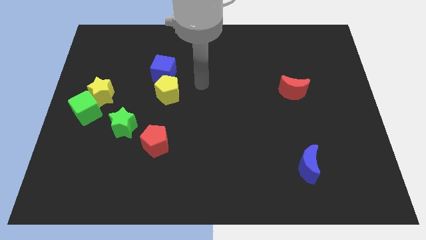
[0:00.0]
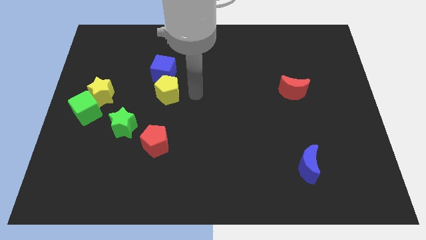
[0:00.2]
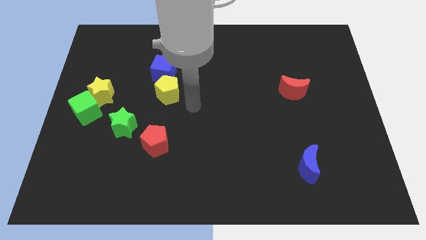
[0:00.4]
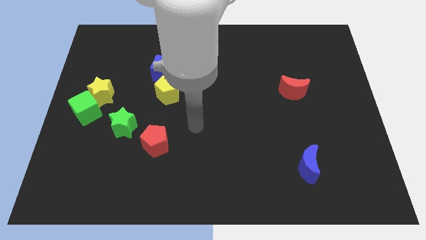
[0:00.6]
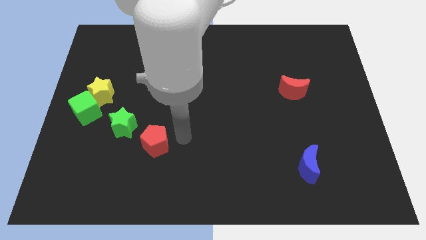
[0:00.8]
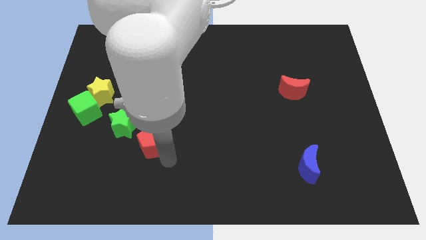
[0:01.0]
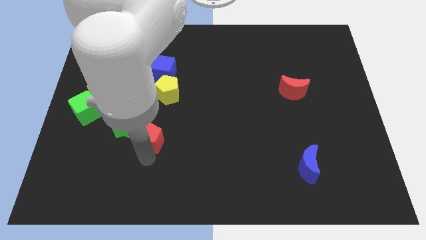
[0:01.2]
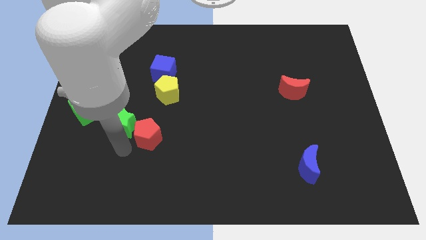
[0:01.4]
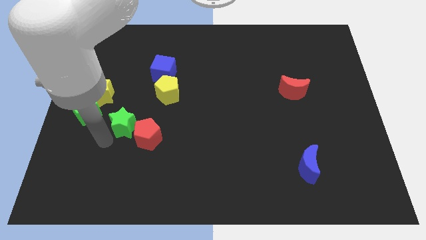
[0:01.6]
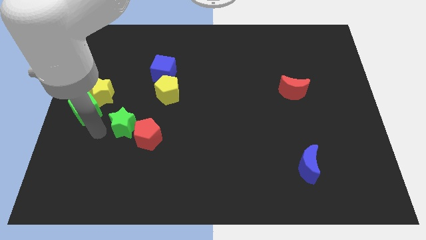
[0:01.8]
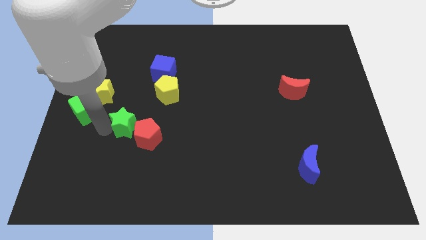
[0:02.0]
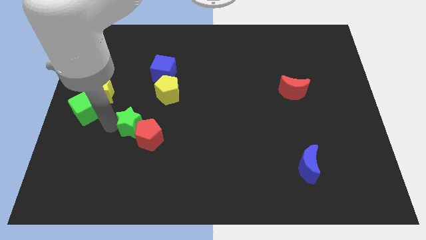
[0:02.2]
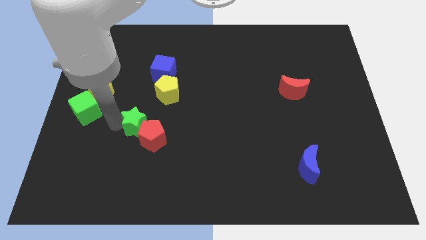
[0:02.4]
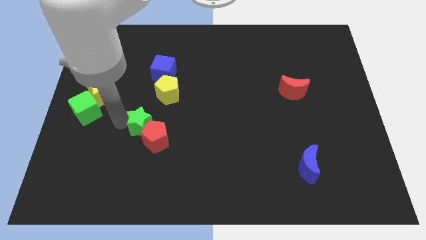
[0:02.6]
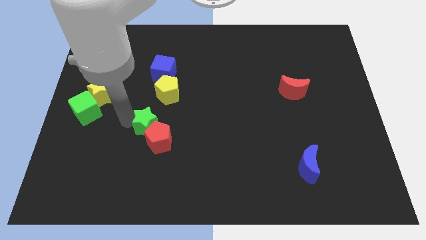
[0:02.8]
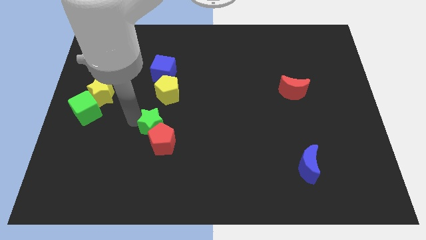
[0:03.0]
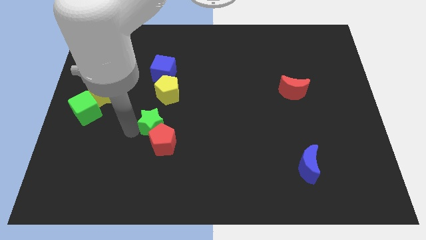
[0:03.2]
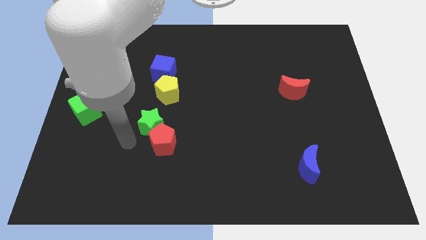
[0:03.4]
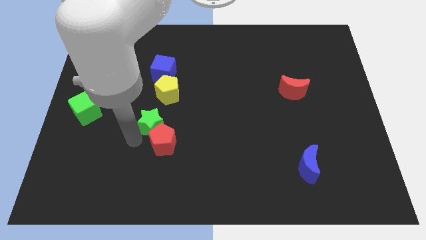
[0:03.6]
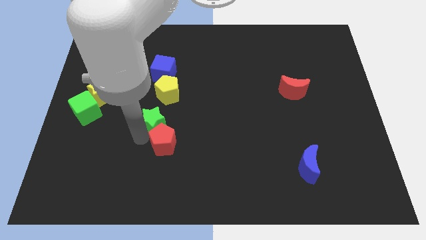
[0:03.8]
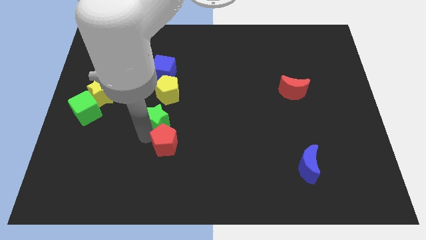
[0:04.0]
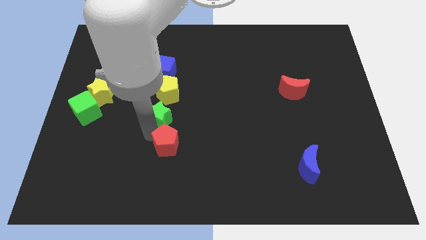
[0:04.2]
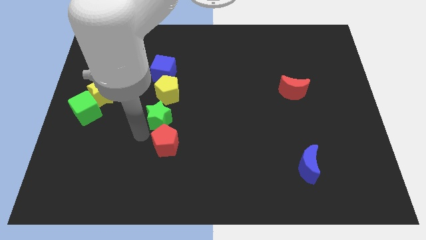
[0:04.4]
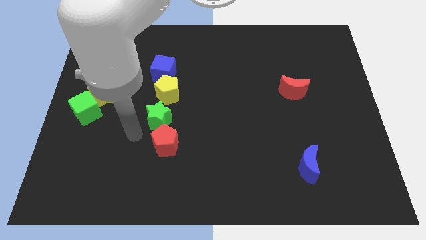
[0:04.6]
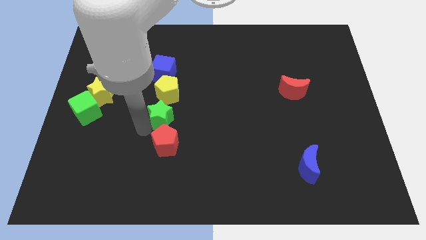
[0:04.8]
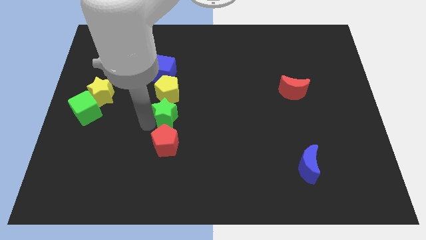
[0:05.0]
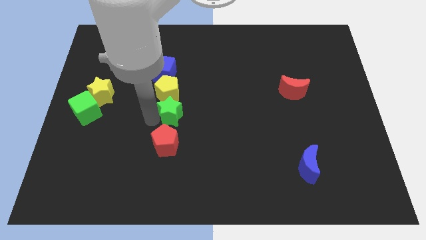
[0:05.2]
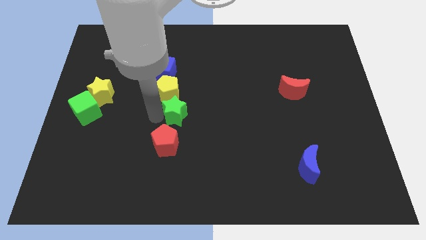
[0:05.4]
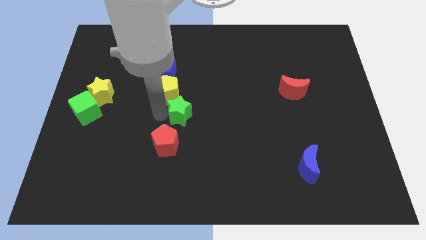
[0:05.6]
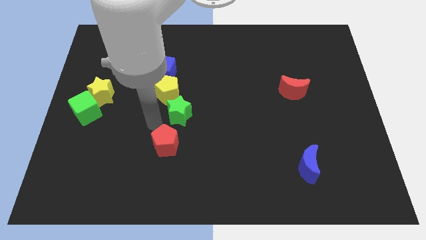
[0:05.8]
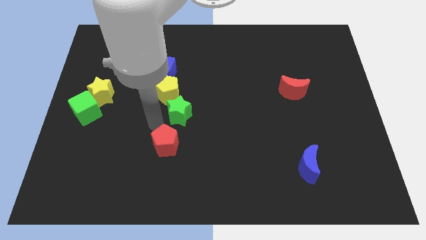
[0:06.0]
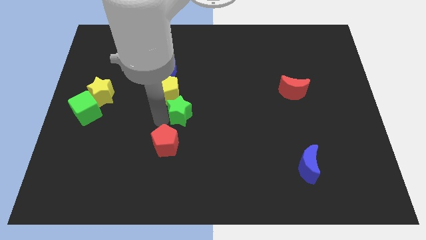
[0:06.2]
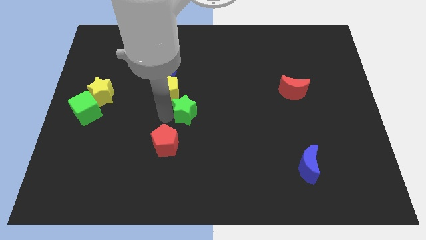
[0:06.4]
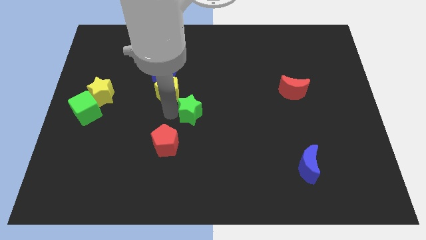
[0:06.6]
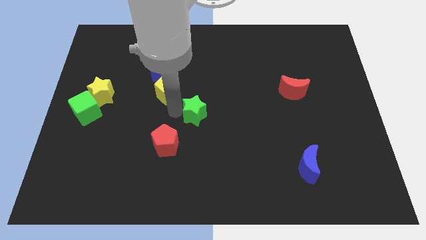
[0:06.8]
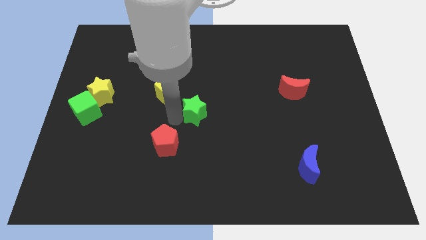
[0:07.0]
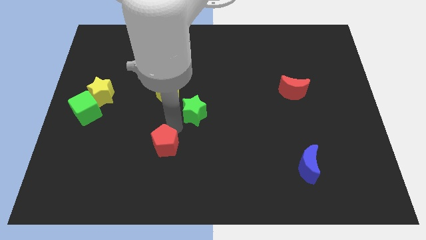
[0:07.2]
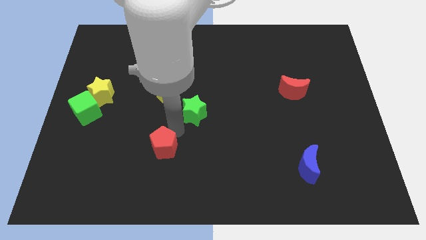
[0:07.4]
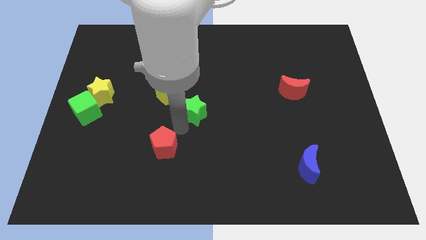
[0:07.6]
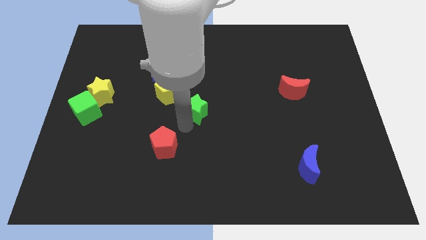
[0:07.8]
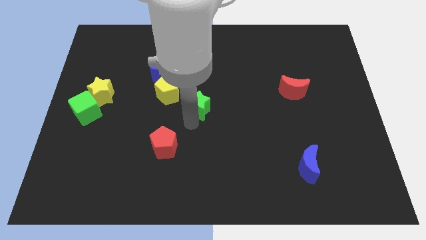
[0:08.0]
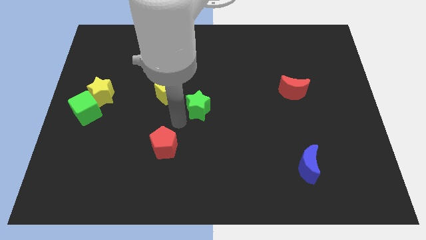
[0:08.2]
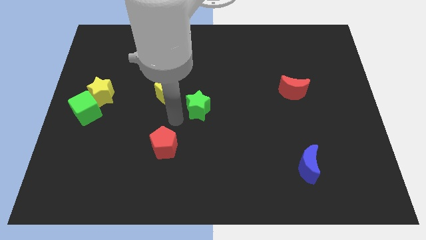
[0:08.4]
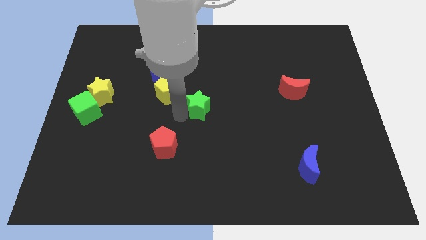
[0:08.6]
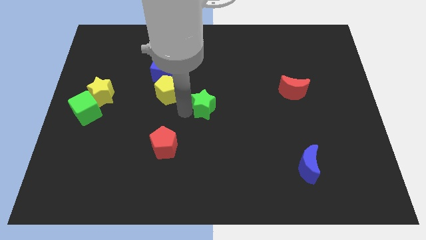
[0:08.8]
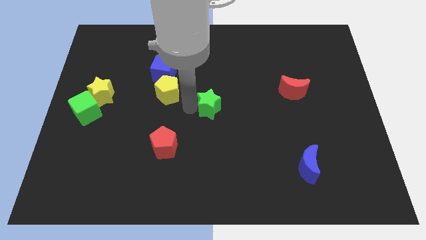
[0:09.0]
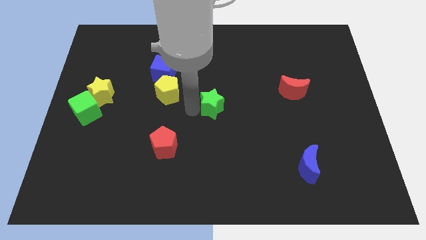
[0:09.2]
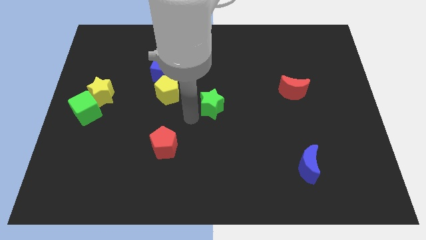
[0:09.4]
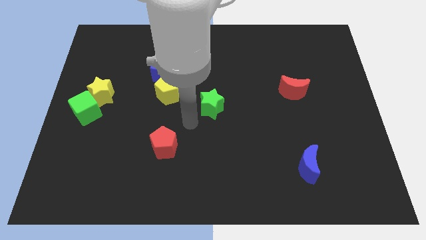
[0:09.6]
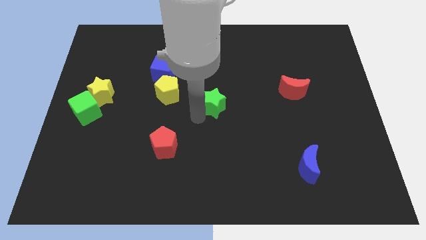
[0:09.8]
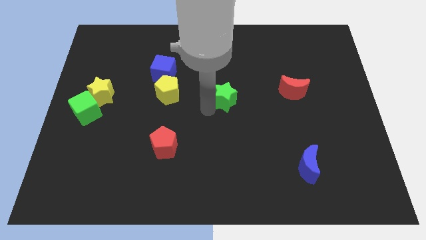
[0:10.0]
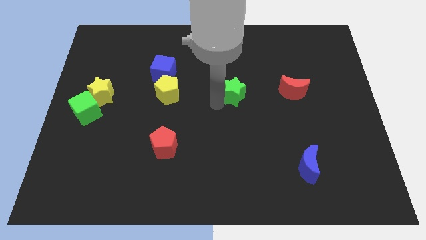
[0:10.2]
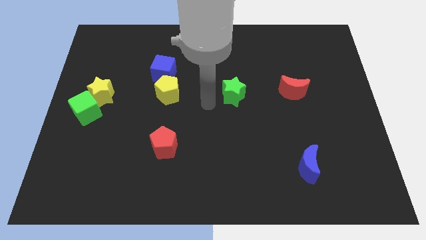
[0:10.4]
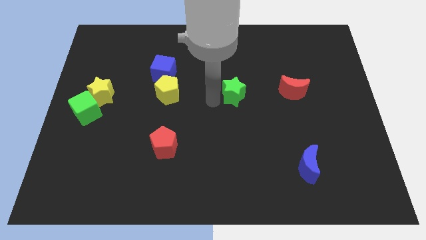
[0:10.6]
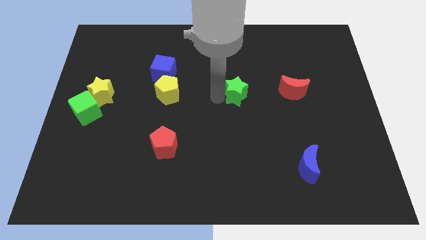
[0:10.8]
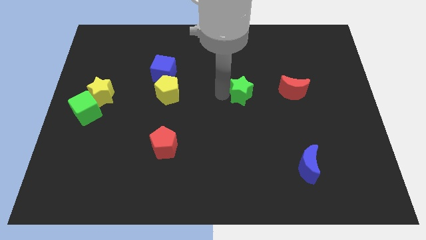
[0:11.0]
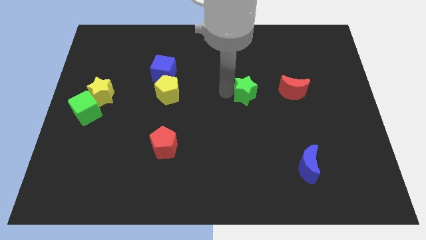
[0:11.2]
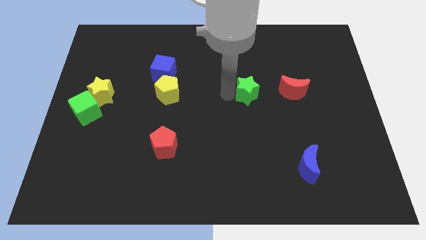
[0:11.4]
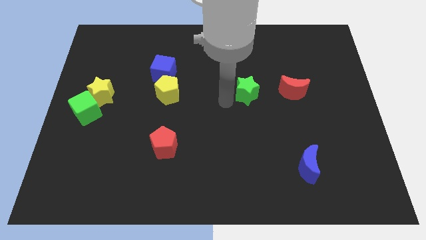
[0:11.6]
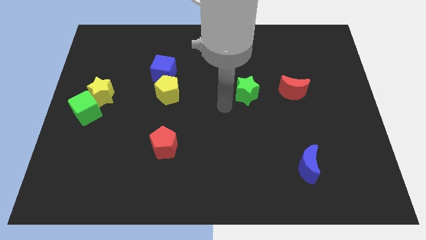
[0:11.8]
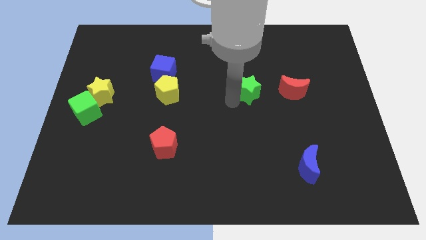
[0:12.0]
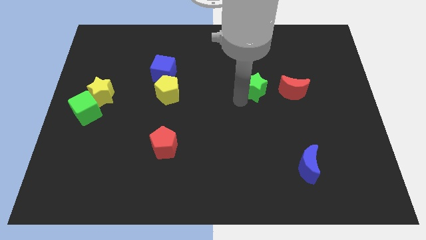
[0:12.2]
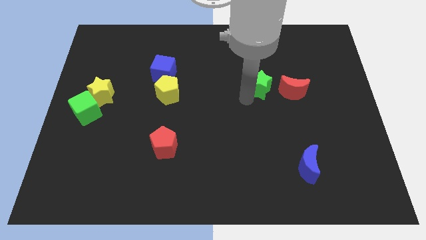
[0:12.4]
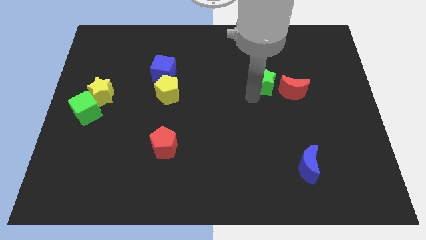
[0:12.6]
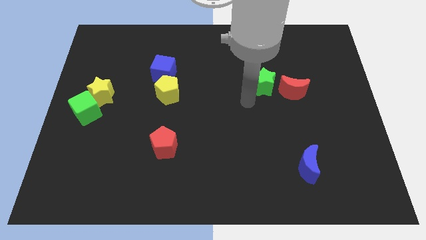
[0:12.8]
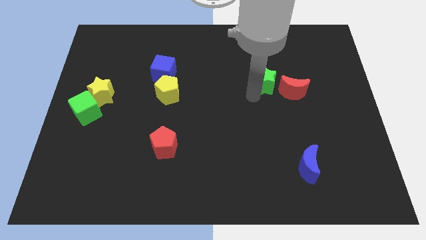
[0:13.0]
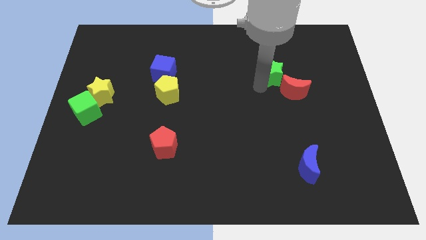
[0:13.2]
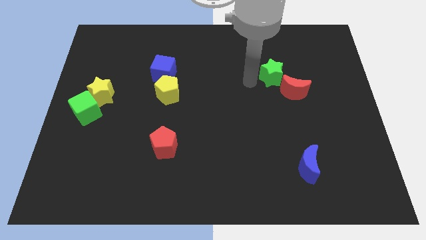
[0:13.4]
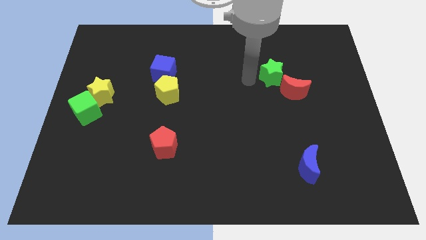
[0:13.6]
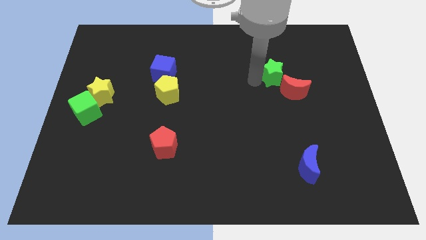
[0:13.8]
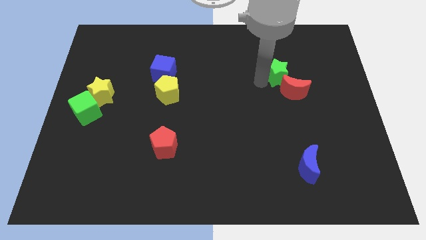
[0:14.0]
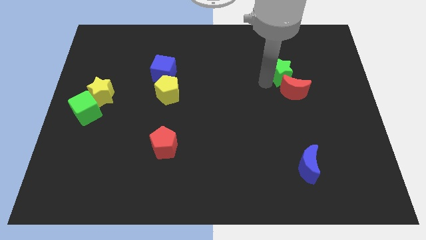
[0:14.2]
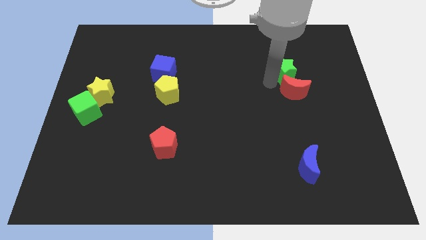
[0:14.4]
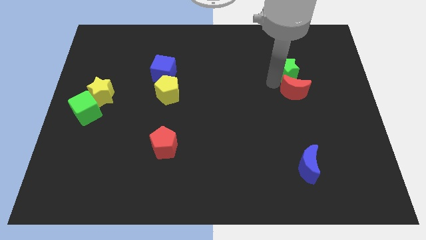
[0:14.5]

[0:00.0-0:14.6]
slide the green star to the top right of the red moon
